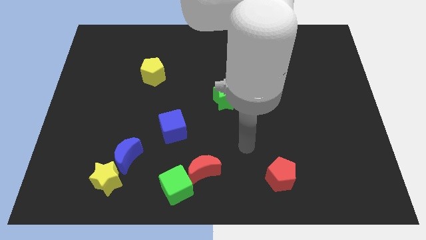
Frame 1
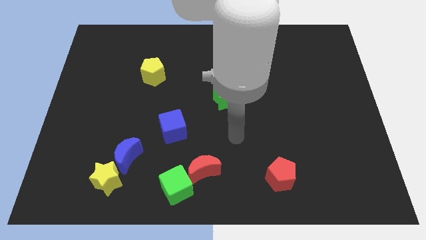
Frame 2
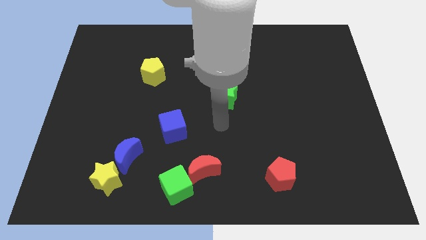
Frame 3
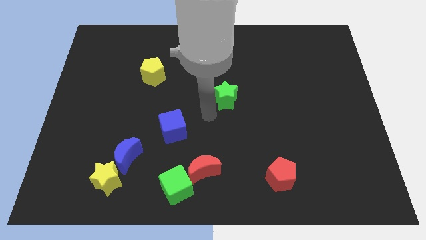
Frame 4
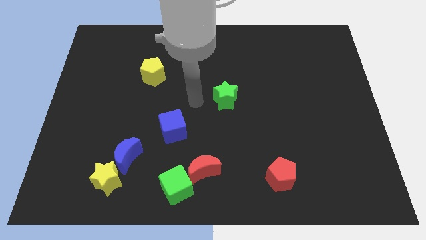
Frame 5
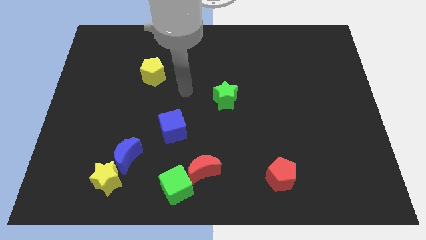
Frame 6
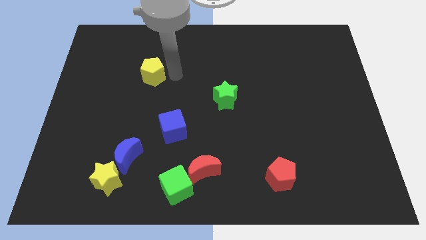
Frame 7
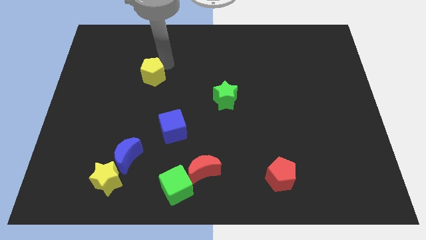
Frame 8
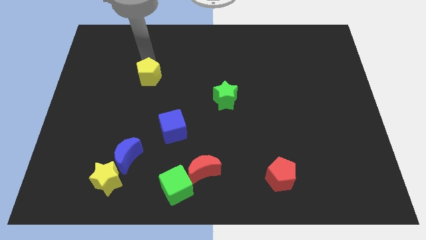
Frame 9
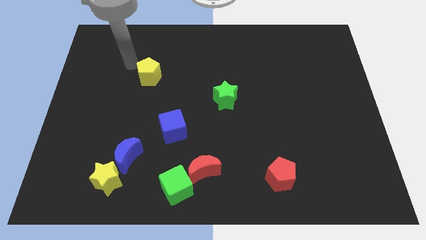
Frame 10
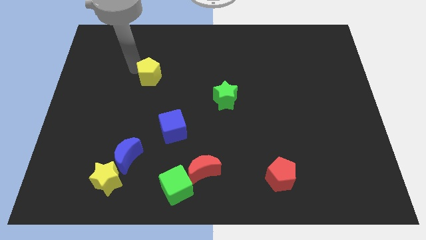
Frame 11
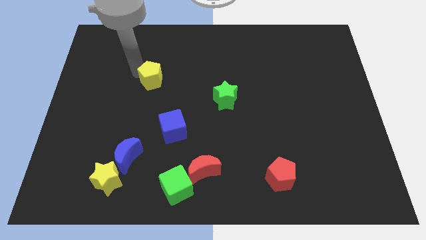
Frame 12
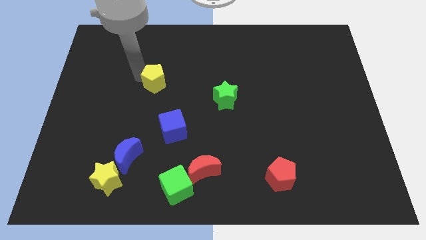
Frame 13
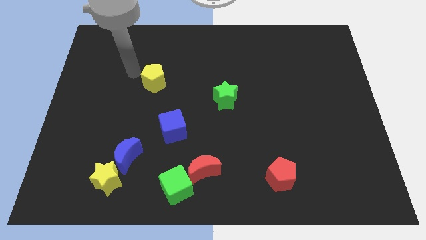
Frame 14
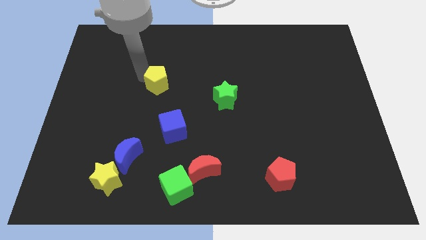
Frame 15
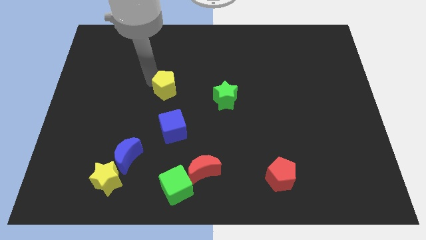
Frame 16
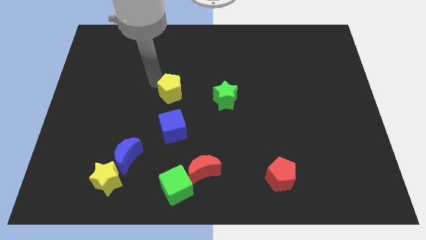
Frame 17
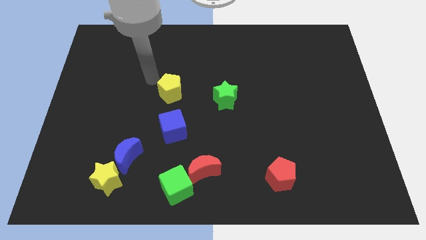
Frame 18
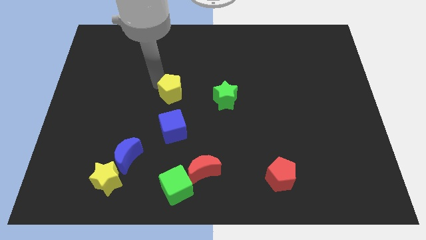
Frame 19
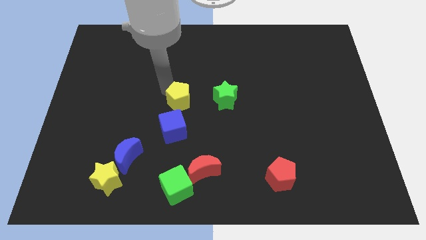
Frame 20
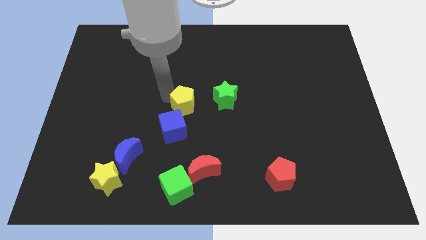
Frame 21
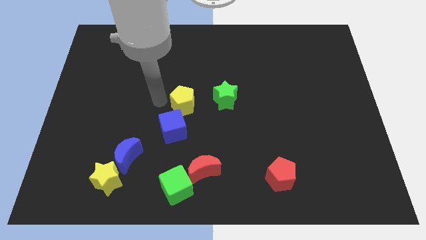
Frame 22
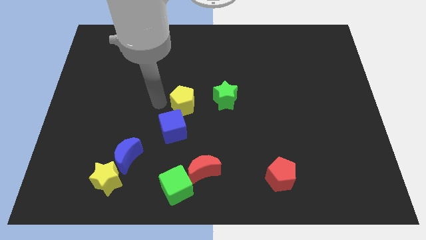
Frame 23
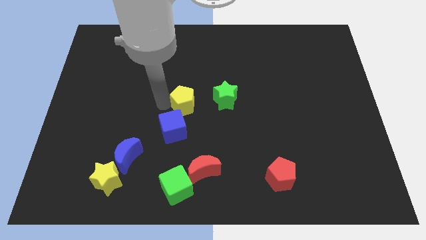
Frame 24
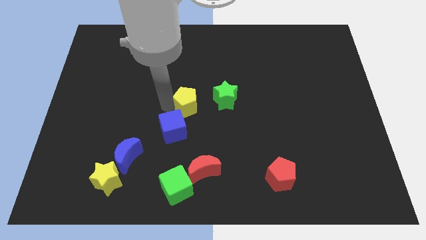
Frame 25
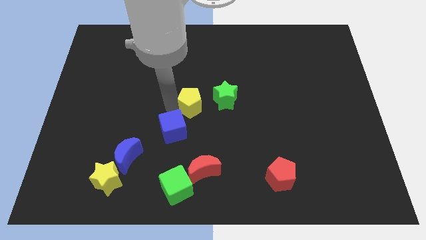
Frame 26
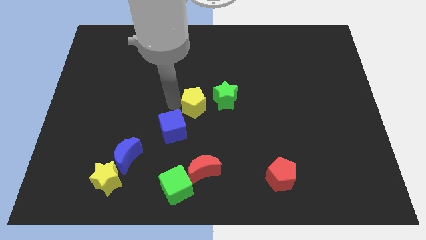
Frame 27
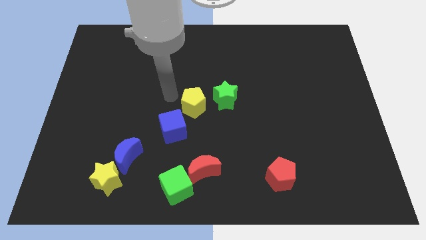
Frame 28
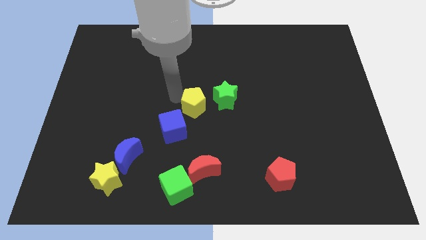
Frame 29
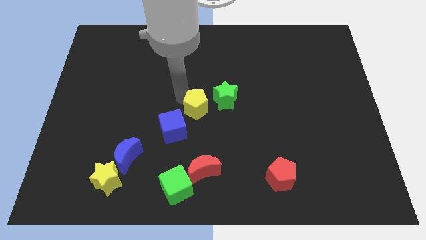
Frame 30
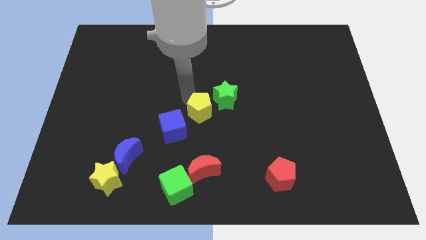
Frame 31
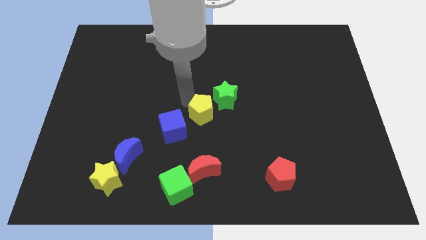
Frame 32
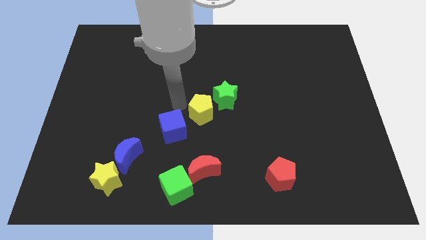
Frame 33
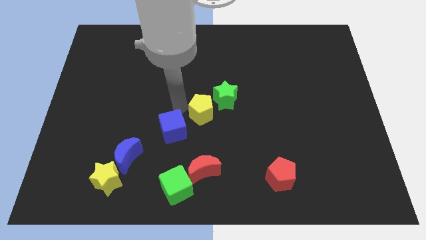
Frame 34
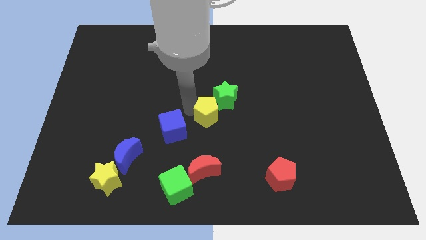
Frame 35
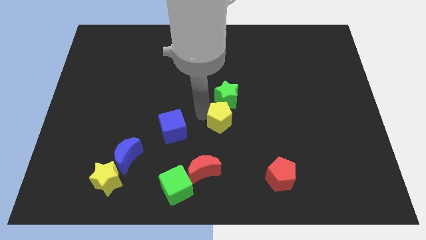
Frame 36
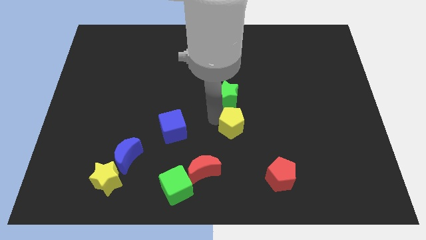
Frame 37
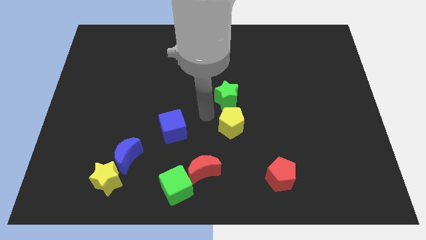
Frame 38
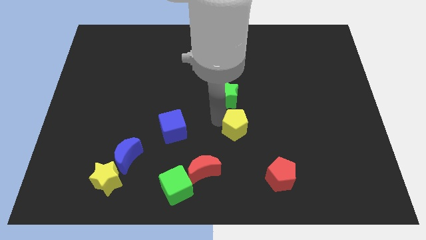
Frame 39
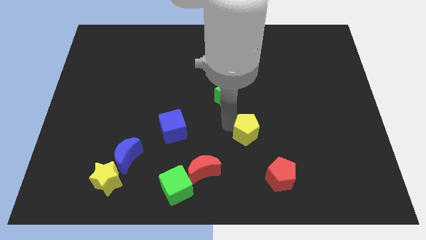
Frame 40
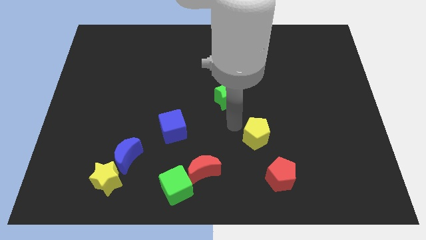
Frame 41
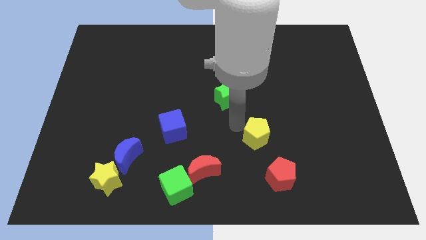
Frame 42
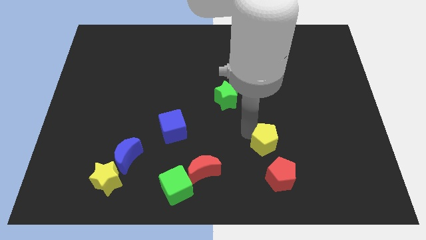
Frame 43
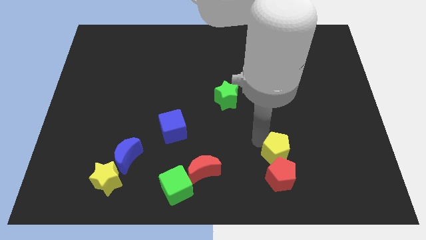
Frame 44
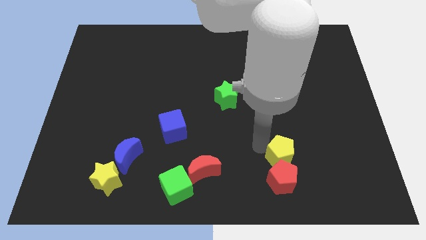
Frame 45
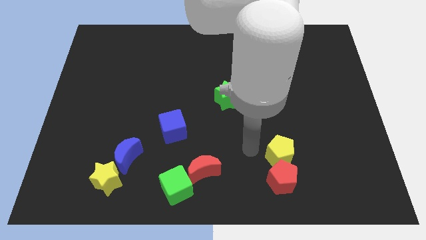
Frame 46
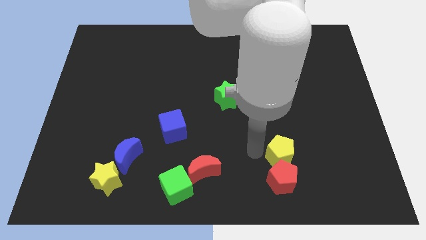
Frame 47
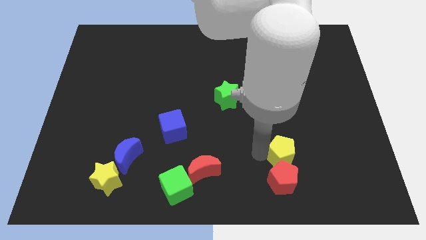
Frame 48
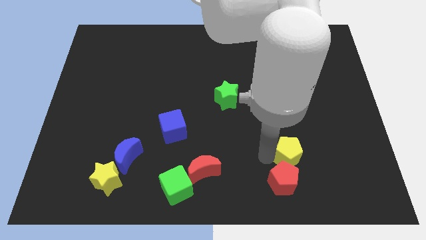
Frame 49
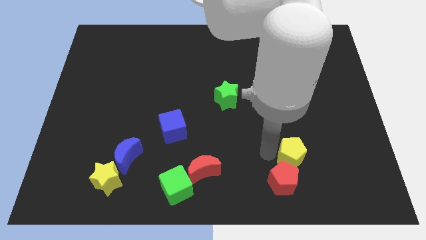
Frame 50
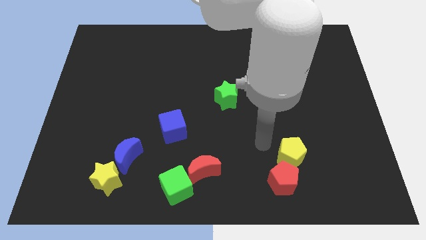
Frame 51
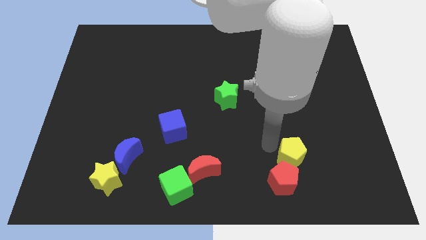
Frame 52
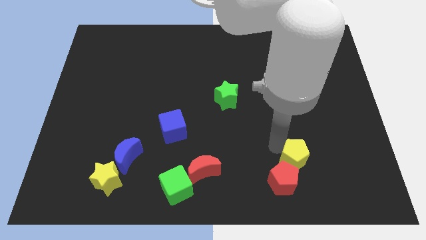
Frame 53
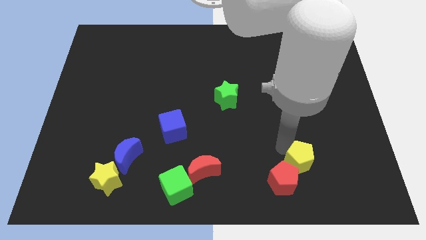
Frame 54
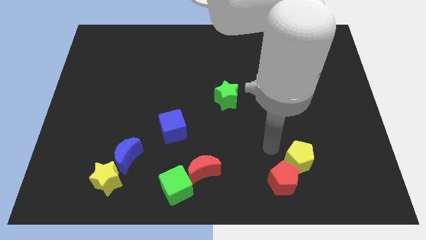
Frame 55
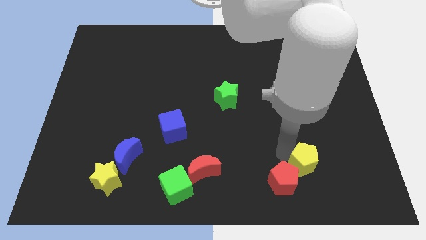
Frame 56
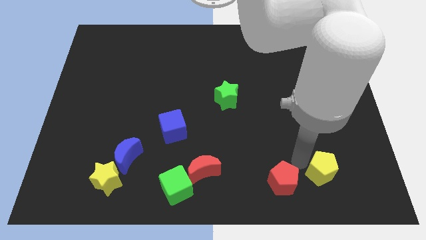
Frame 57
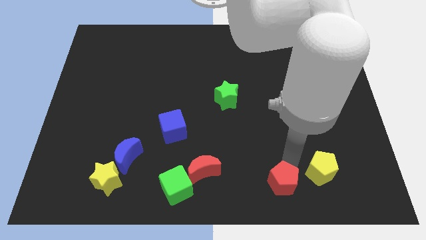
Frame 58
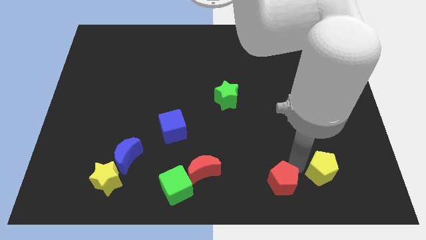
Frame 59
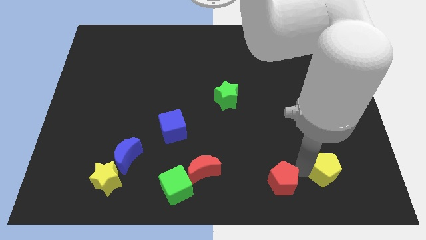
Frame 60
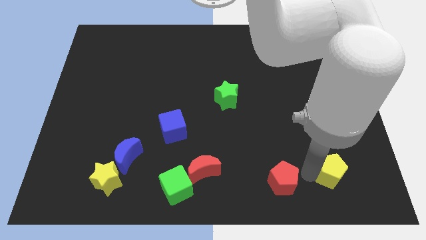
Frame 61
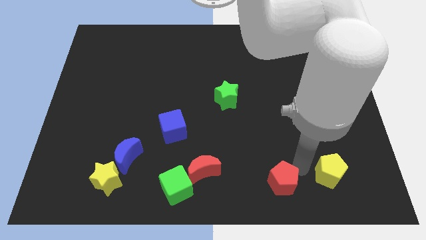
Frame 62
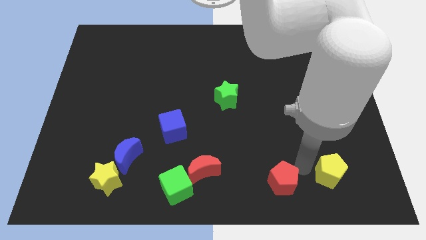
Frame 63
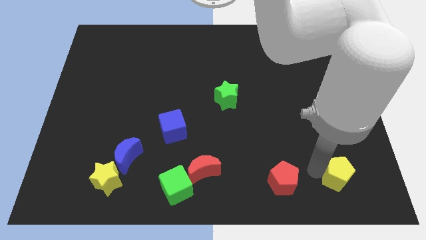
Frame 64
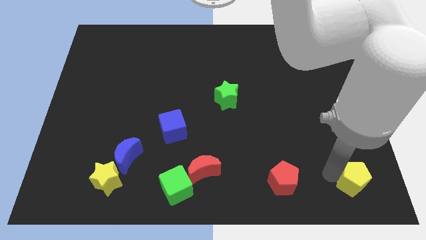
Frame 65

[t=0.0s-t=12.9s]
put the yellow pentagon to the bottom right corner
